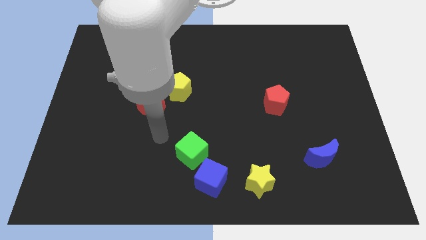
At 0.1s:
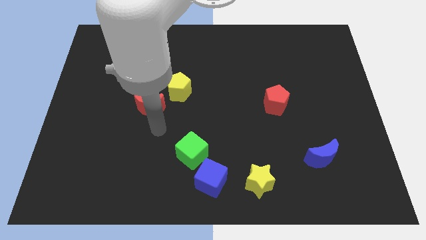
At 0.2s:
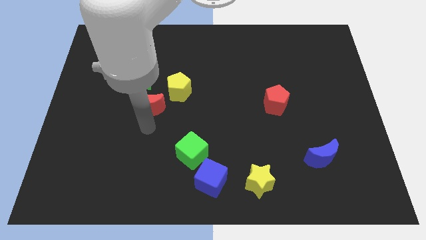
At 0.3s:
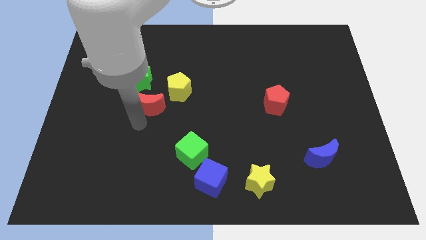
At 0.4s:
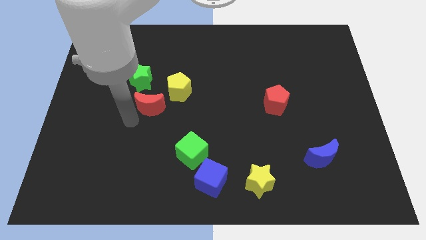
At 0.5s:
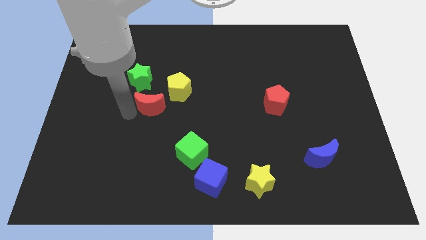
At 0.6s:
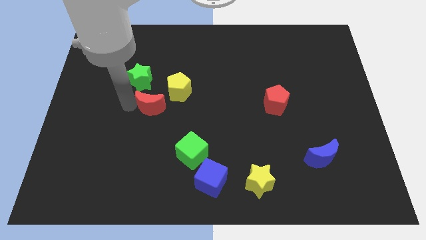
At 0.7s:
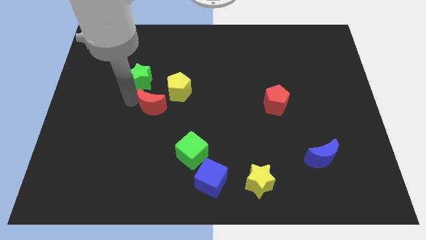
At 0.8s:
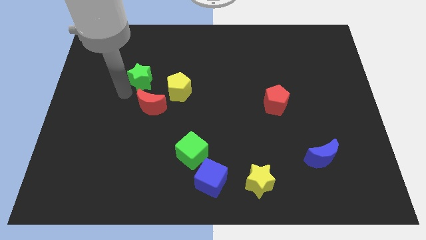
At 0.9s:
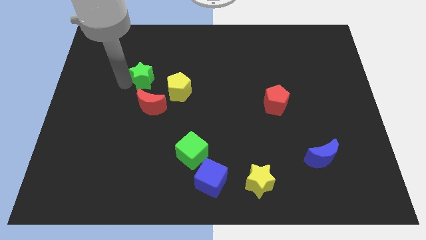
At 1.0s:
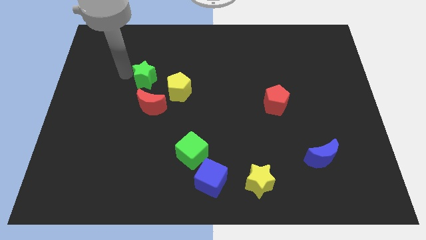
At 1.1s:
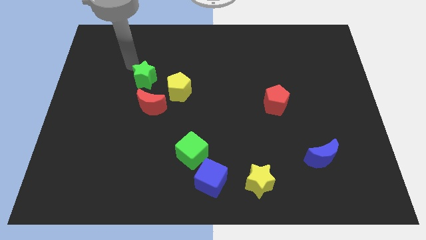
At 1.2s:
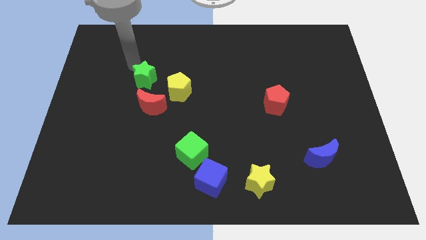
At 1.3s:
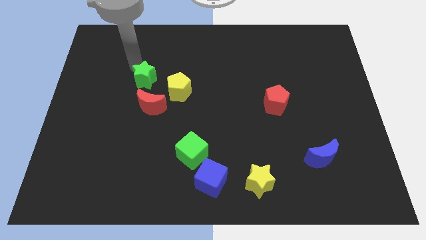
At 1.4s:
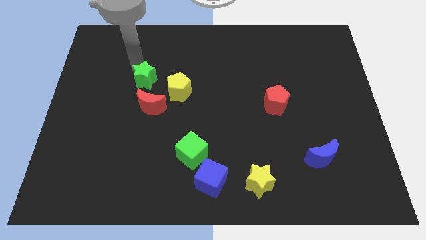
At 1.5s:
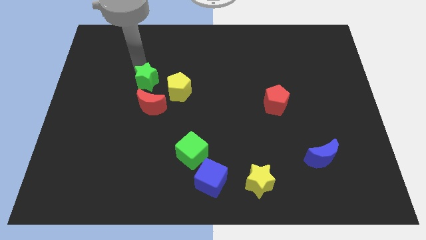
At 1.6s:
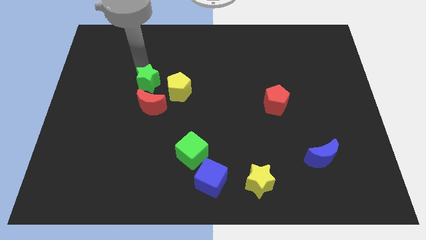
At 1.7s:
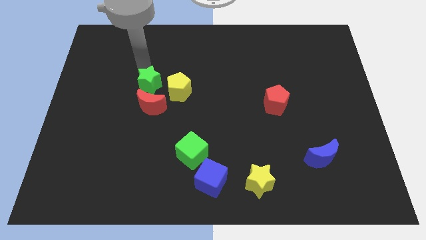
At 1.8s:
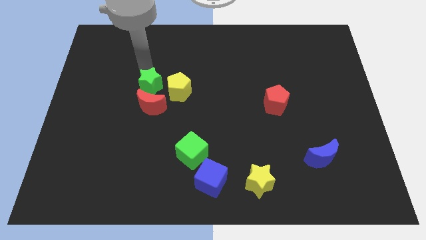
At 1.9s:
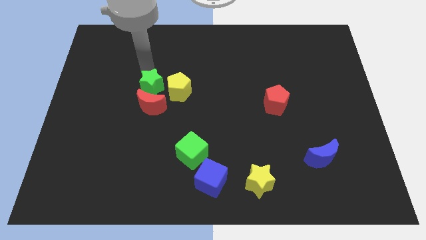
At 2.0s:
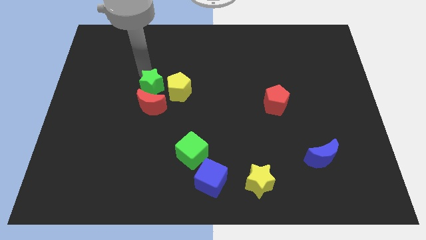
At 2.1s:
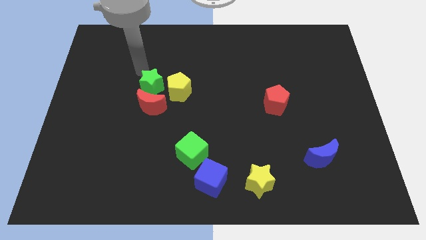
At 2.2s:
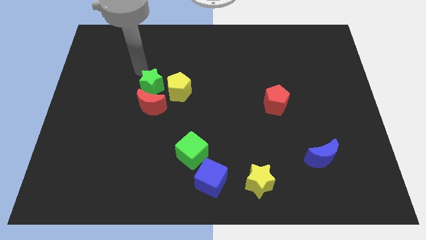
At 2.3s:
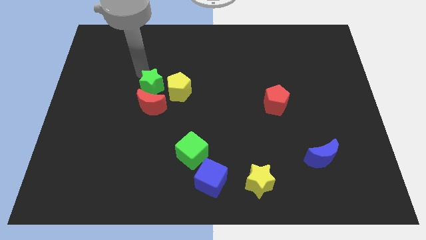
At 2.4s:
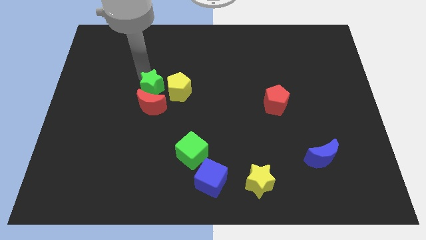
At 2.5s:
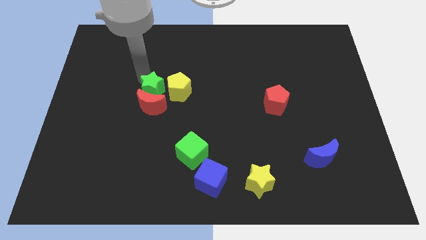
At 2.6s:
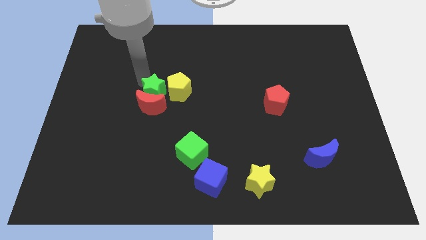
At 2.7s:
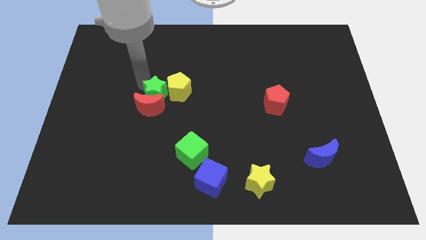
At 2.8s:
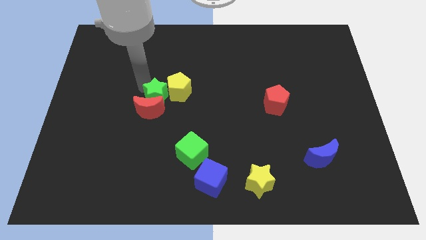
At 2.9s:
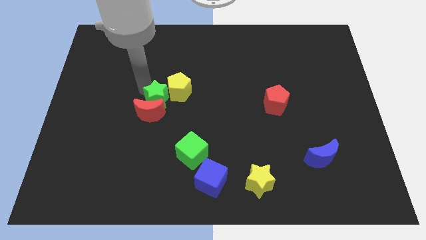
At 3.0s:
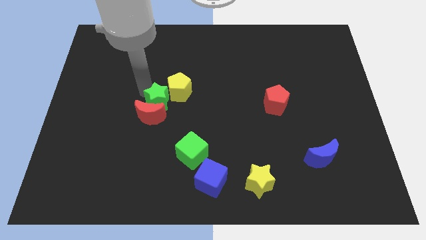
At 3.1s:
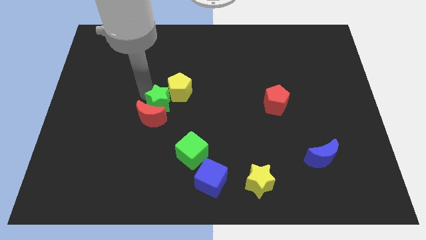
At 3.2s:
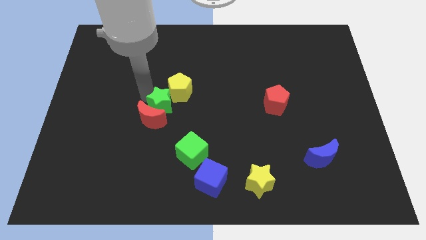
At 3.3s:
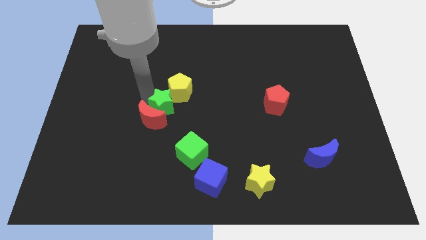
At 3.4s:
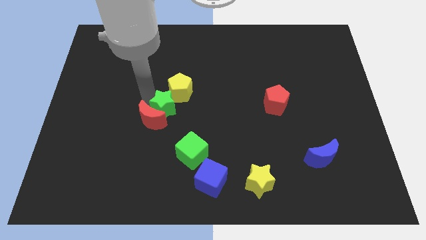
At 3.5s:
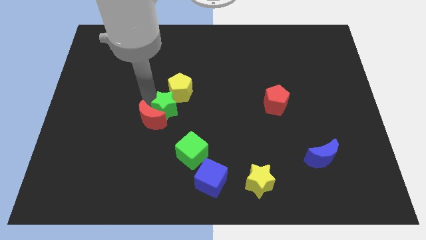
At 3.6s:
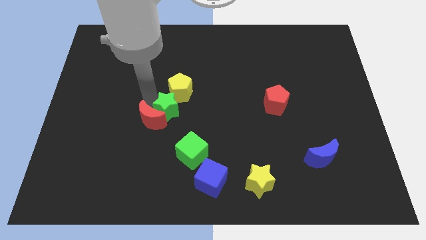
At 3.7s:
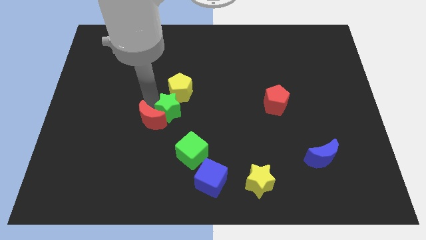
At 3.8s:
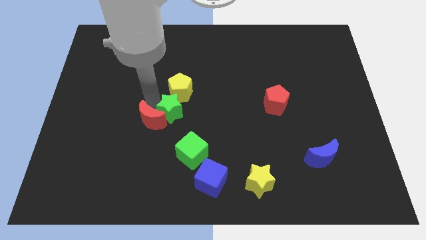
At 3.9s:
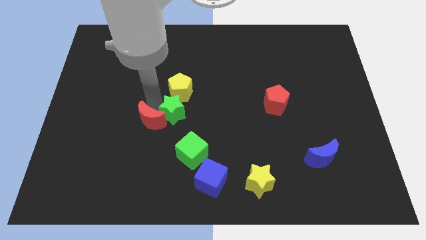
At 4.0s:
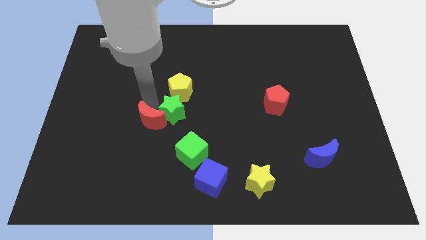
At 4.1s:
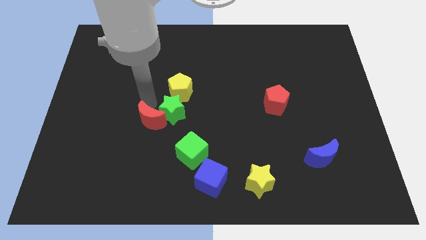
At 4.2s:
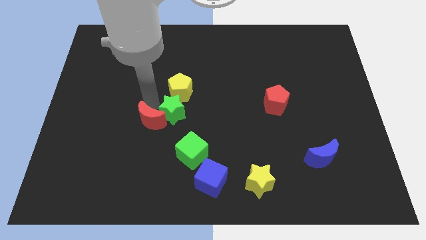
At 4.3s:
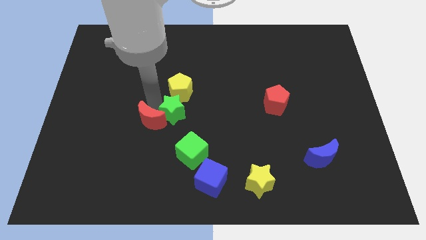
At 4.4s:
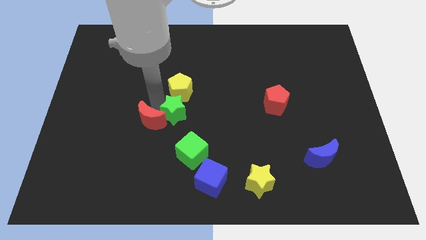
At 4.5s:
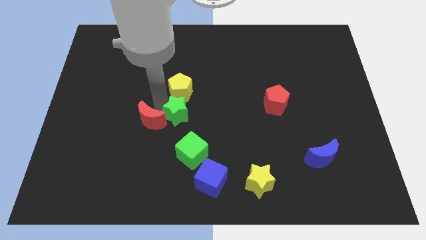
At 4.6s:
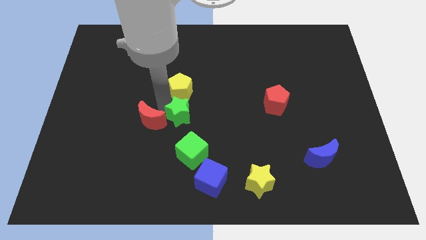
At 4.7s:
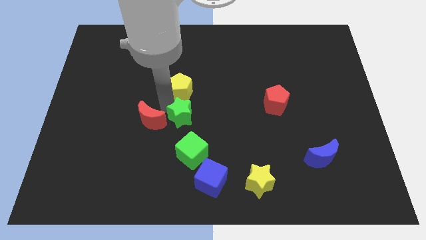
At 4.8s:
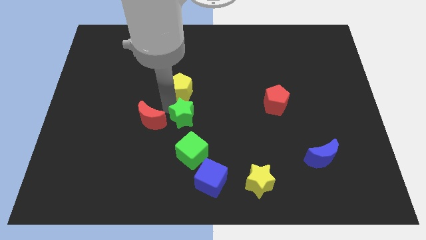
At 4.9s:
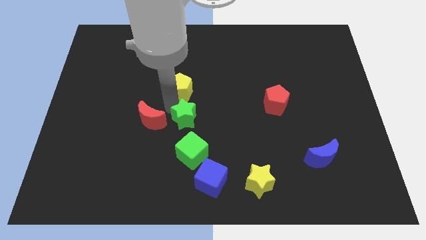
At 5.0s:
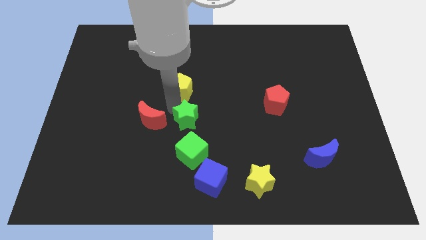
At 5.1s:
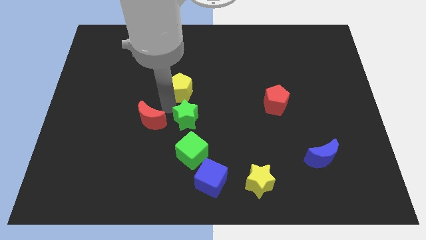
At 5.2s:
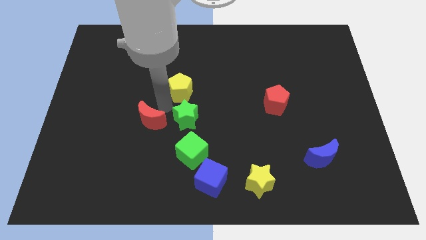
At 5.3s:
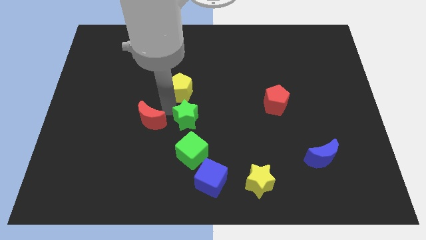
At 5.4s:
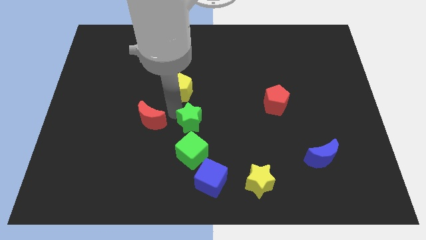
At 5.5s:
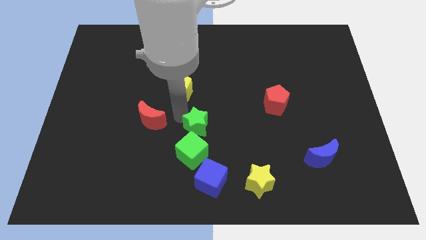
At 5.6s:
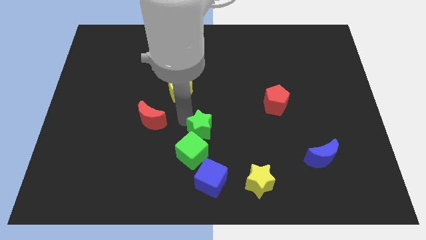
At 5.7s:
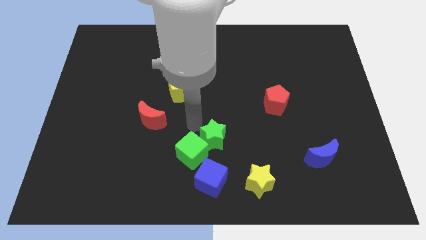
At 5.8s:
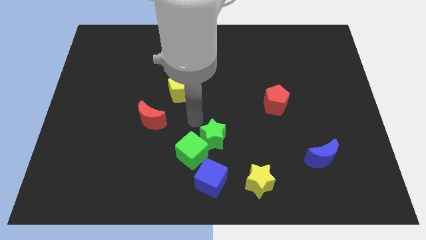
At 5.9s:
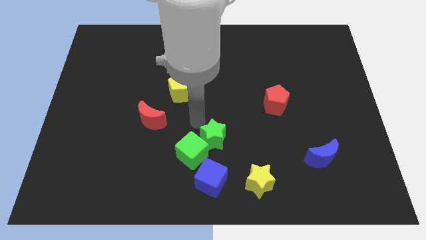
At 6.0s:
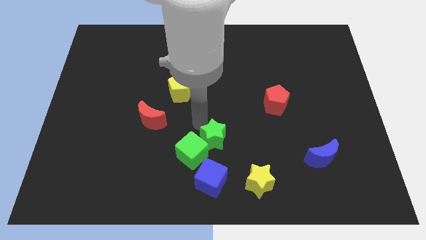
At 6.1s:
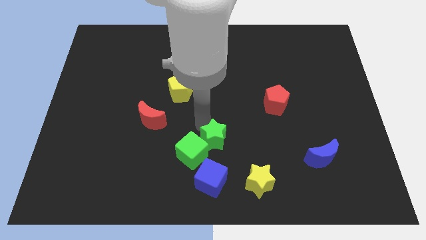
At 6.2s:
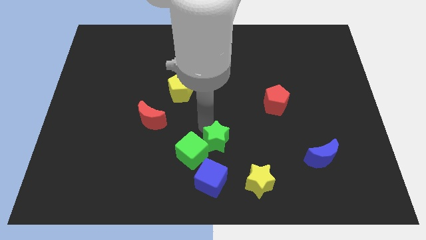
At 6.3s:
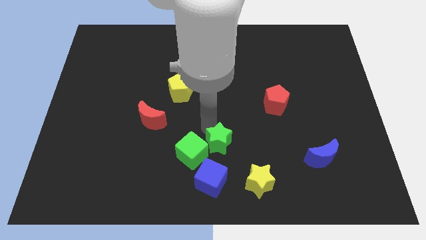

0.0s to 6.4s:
slide the green star diagonally up and to the left of the yellow star

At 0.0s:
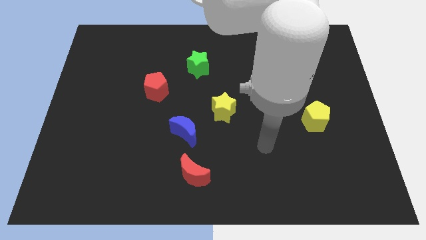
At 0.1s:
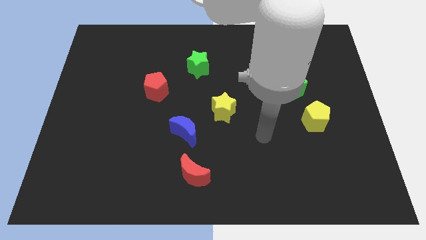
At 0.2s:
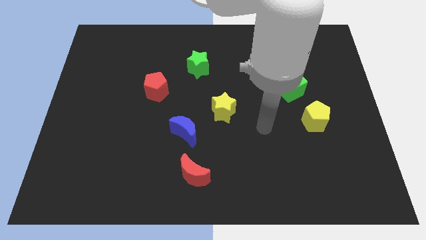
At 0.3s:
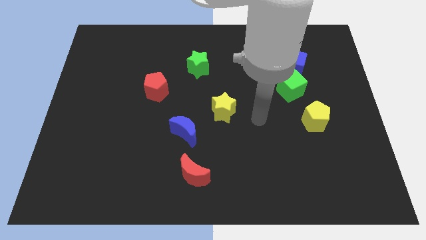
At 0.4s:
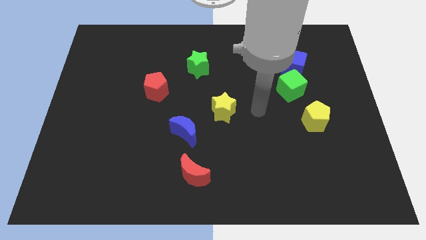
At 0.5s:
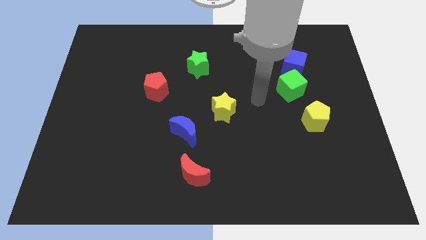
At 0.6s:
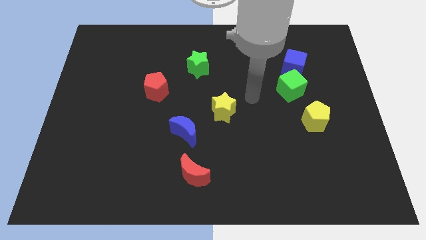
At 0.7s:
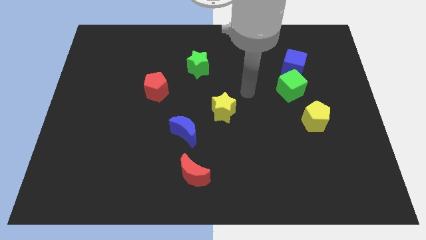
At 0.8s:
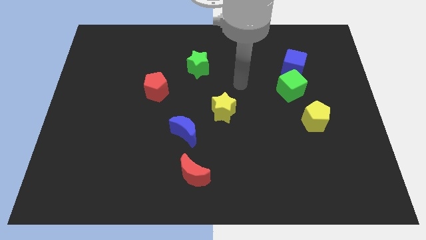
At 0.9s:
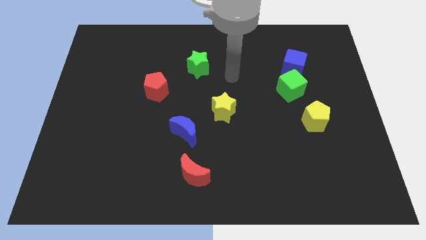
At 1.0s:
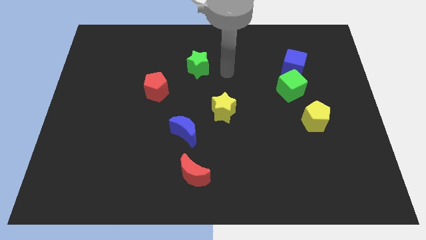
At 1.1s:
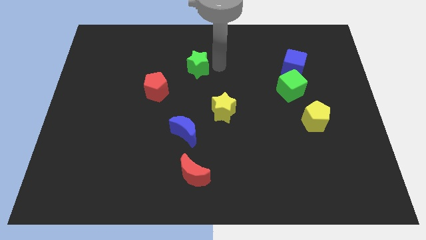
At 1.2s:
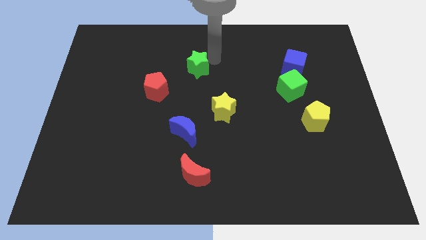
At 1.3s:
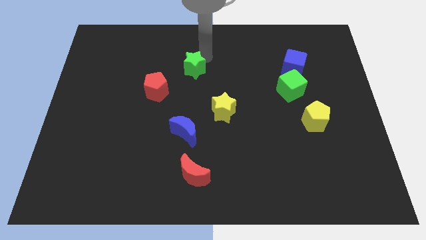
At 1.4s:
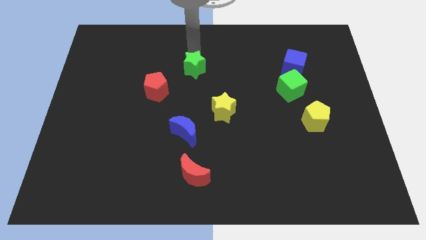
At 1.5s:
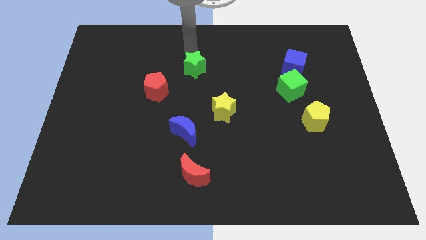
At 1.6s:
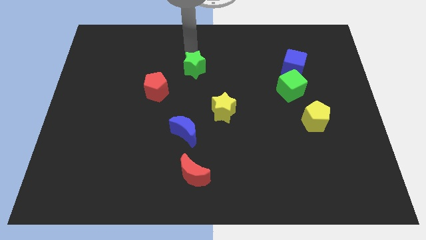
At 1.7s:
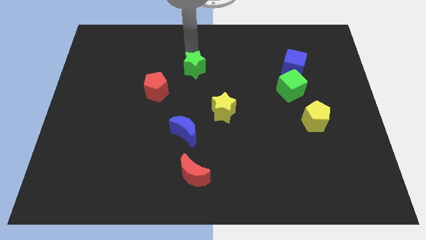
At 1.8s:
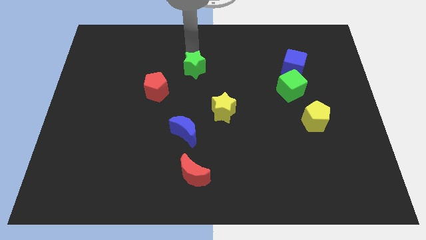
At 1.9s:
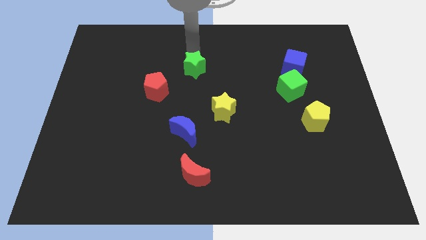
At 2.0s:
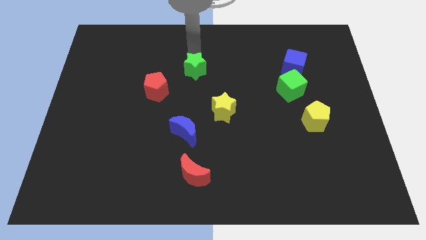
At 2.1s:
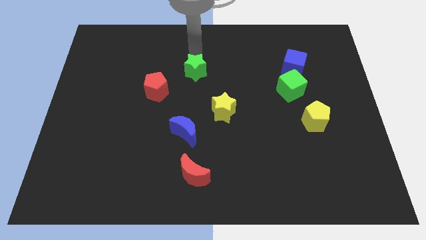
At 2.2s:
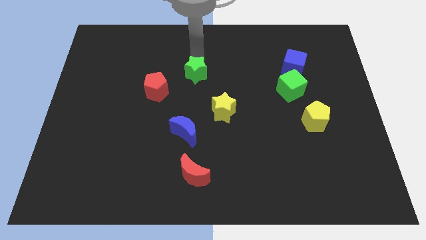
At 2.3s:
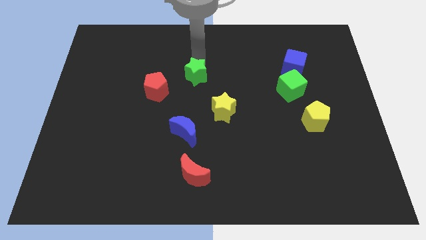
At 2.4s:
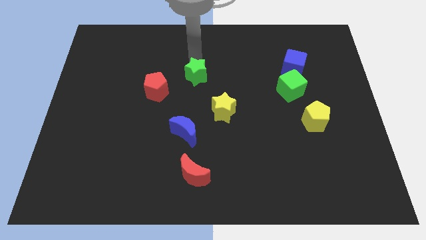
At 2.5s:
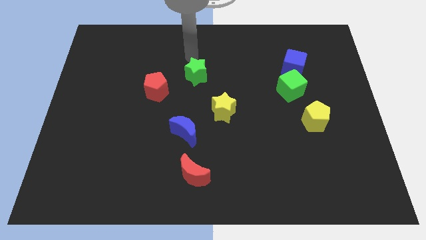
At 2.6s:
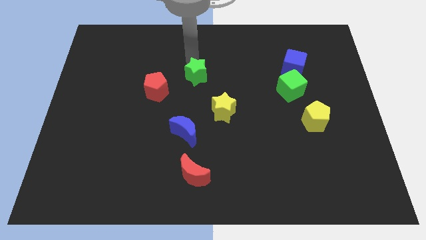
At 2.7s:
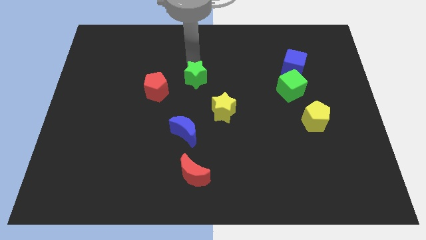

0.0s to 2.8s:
push the green star to the top left of the yellow star
